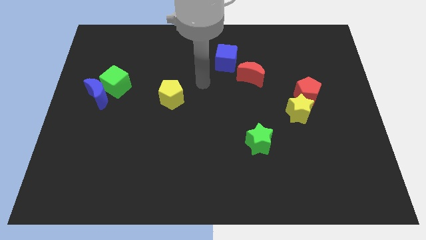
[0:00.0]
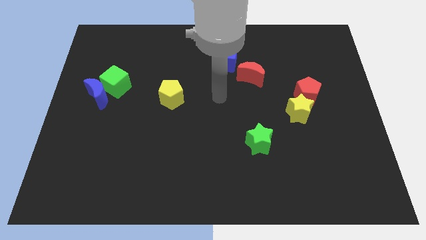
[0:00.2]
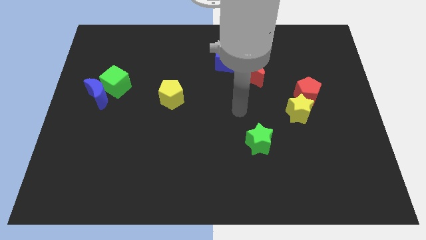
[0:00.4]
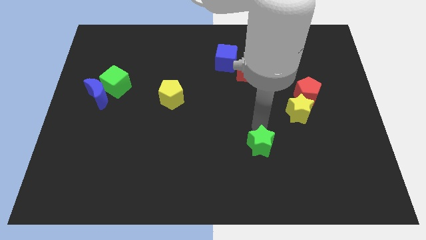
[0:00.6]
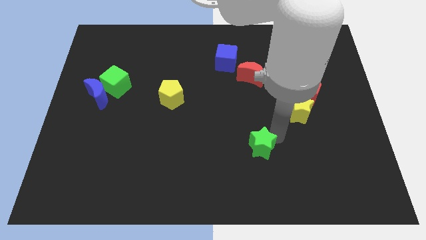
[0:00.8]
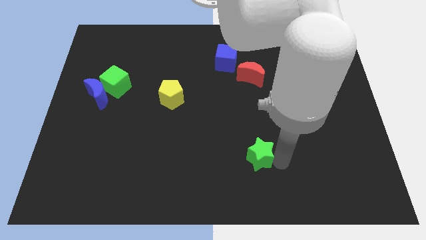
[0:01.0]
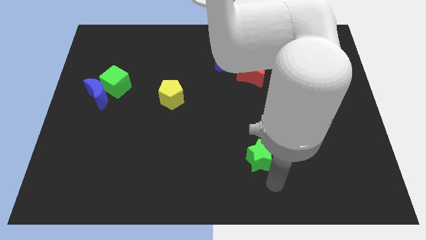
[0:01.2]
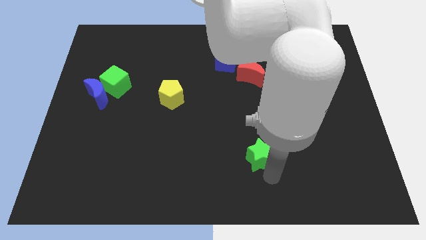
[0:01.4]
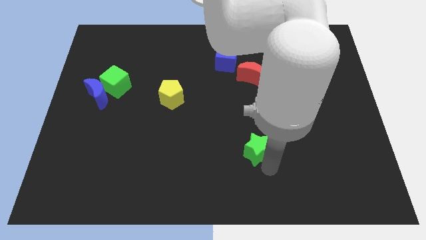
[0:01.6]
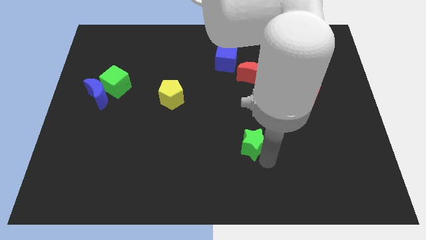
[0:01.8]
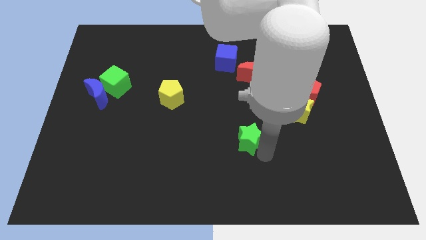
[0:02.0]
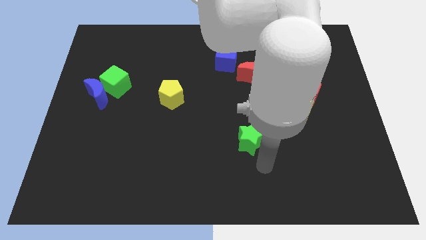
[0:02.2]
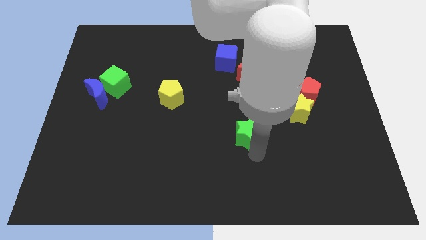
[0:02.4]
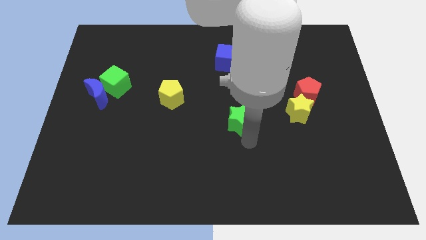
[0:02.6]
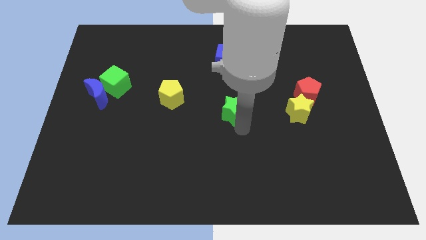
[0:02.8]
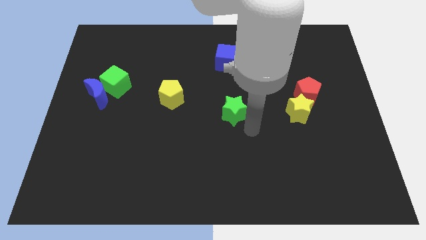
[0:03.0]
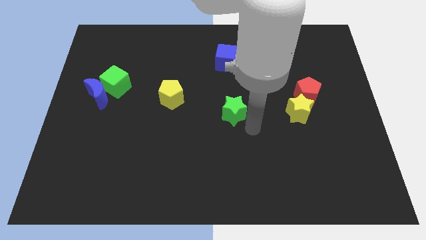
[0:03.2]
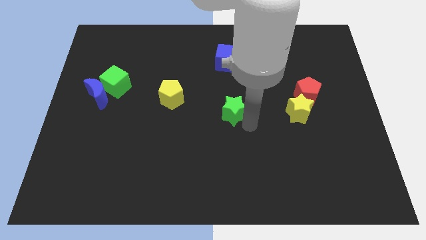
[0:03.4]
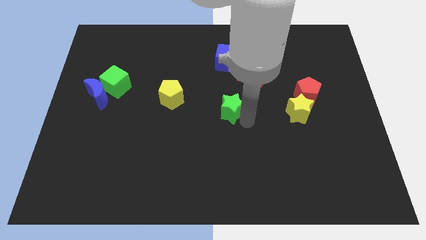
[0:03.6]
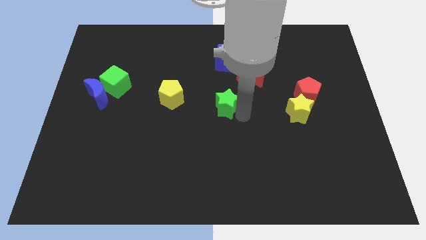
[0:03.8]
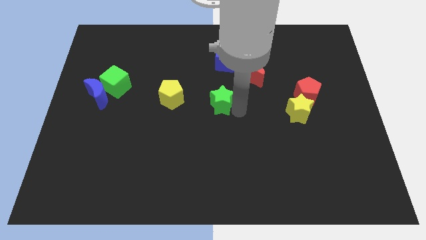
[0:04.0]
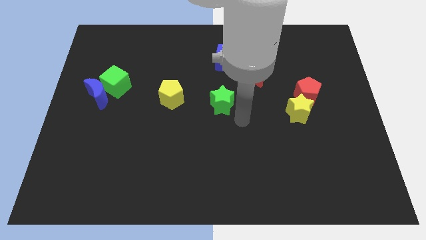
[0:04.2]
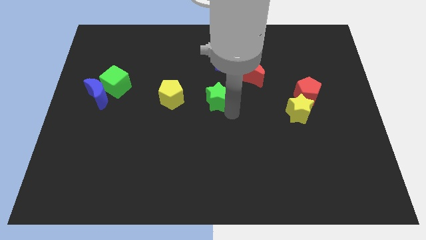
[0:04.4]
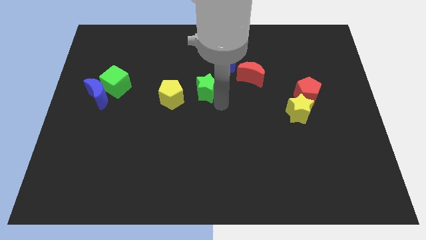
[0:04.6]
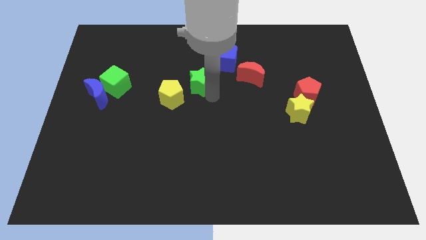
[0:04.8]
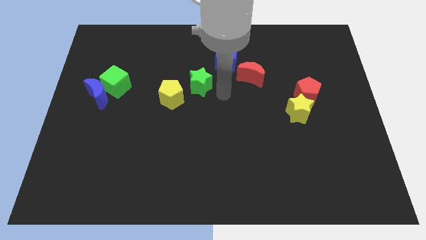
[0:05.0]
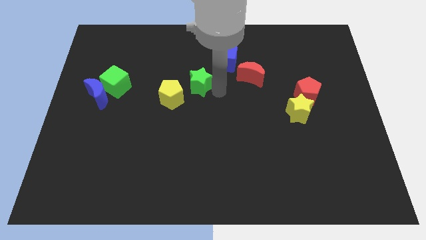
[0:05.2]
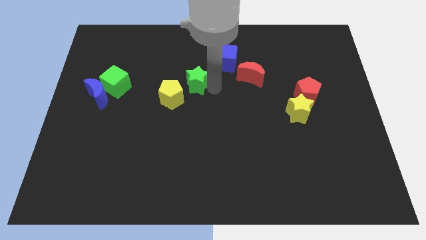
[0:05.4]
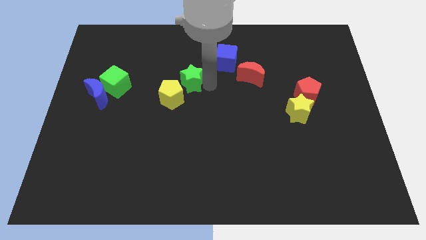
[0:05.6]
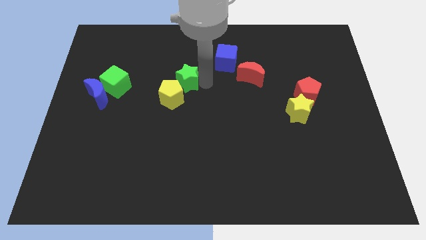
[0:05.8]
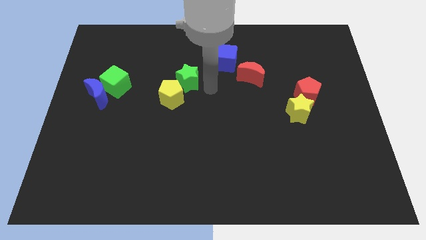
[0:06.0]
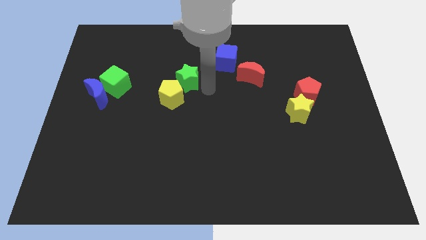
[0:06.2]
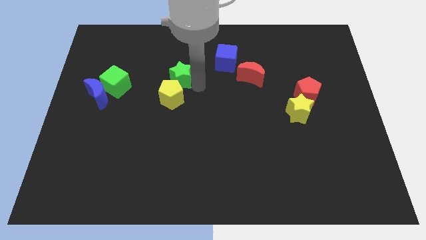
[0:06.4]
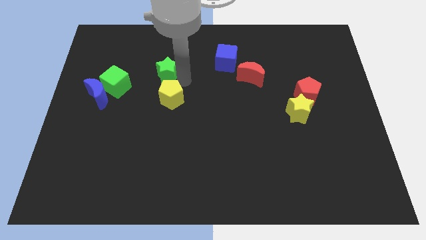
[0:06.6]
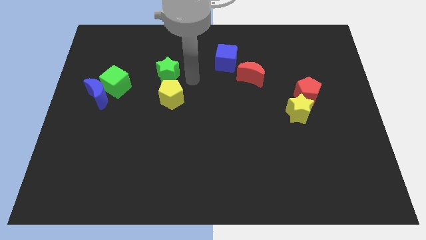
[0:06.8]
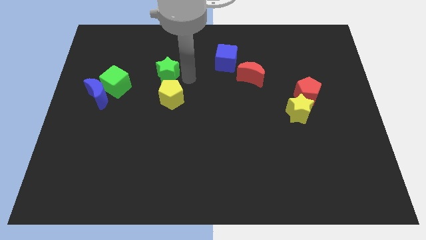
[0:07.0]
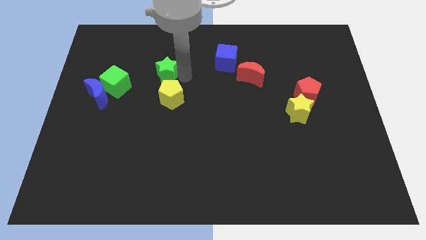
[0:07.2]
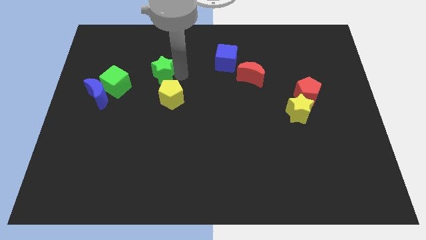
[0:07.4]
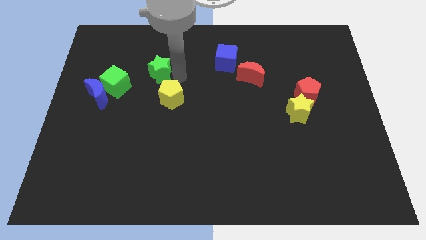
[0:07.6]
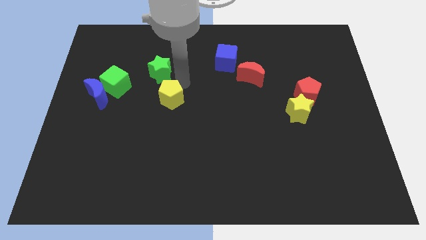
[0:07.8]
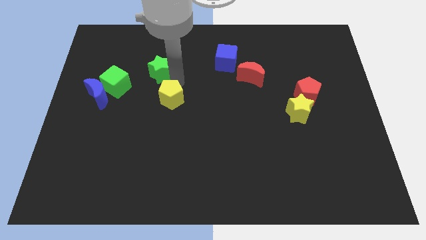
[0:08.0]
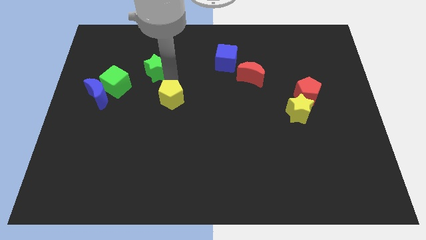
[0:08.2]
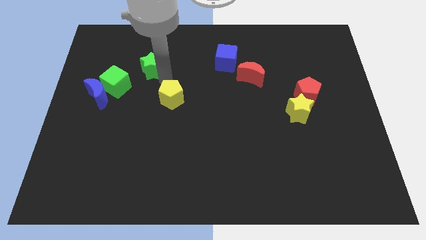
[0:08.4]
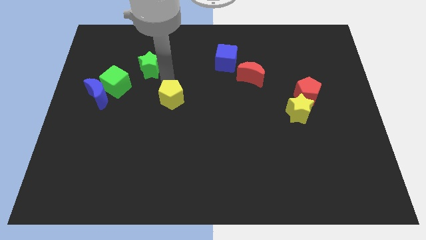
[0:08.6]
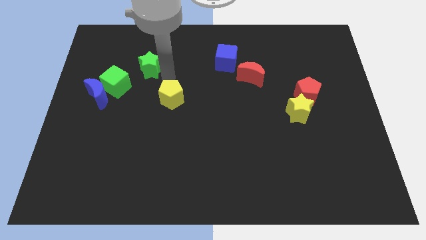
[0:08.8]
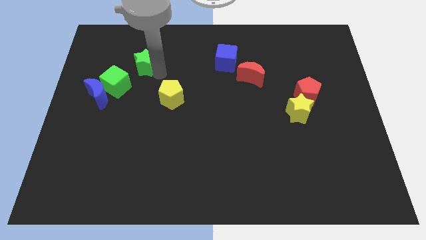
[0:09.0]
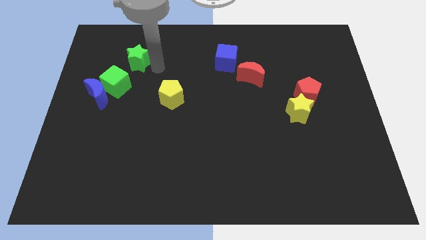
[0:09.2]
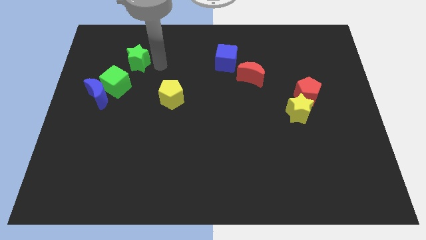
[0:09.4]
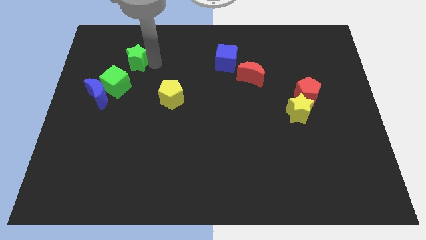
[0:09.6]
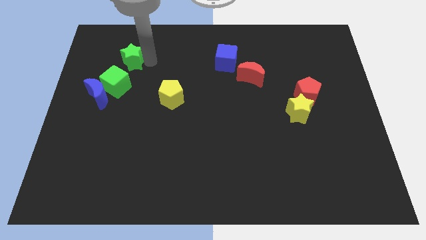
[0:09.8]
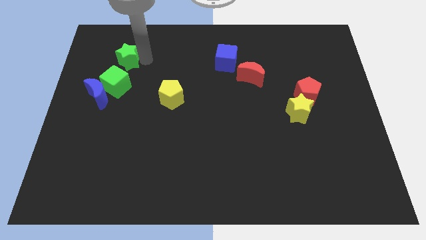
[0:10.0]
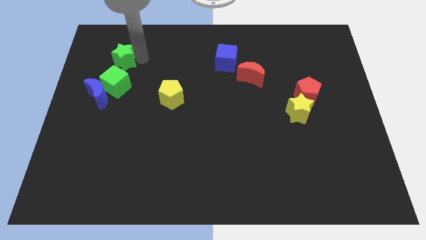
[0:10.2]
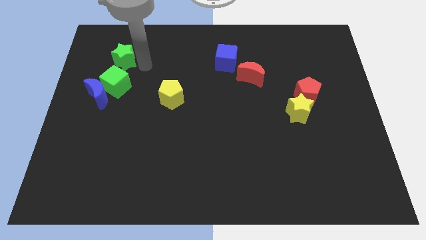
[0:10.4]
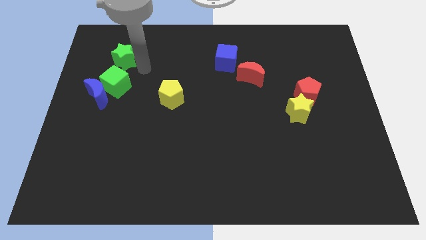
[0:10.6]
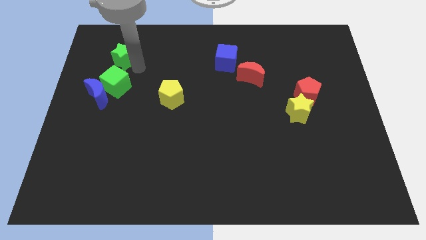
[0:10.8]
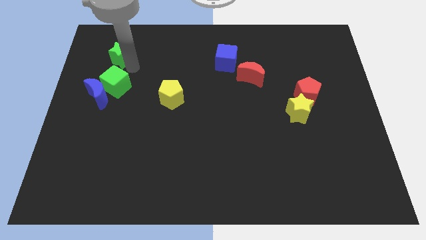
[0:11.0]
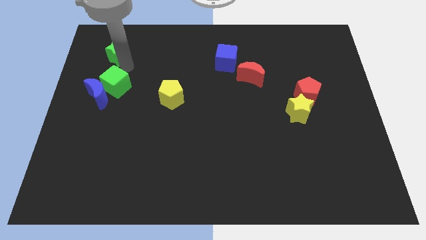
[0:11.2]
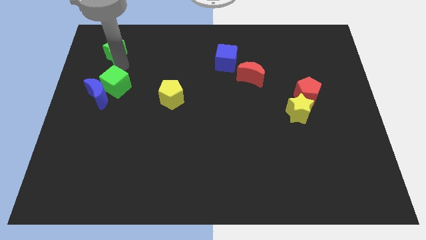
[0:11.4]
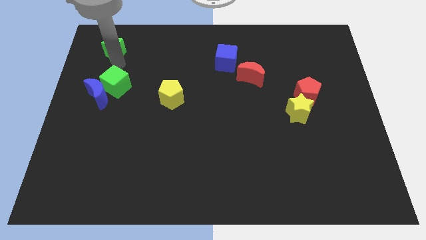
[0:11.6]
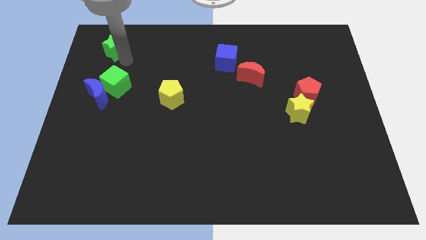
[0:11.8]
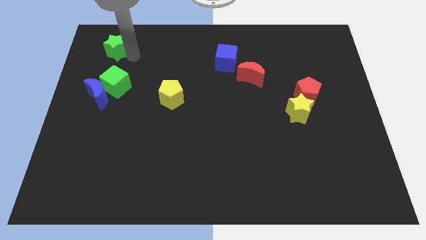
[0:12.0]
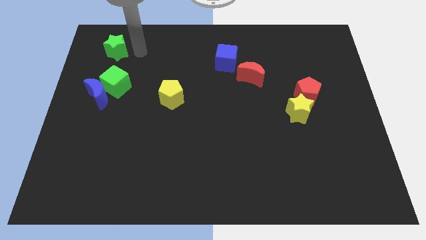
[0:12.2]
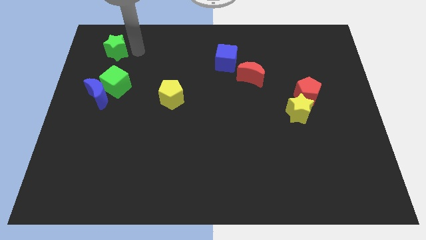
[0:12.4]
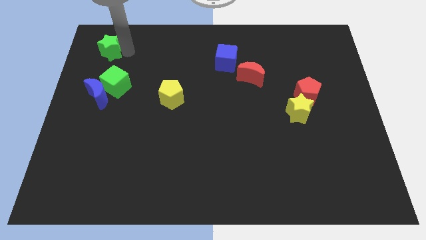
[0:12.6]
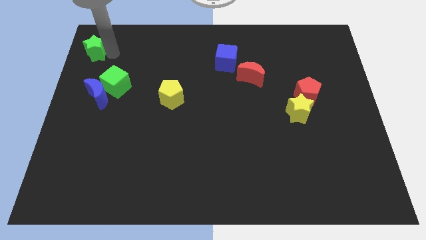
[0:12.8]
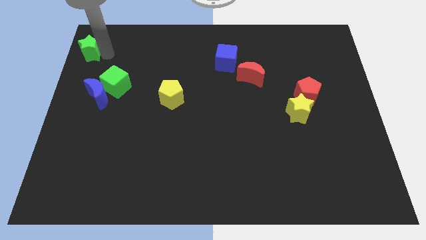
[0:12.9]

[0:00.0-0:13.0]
move the green star to the upper left corner
